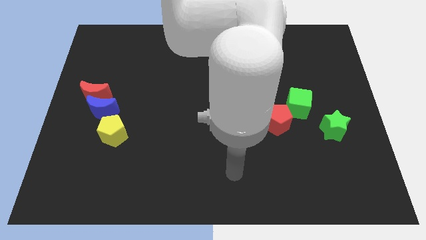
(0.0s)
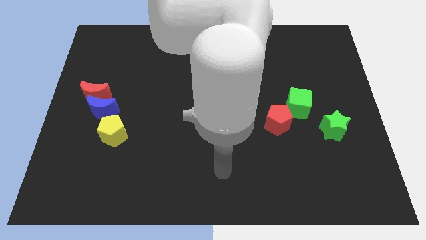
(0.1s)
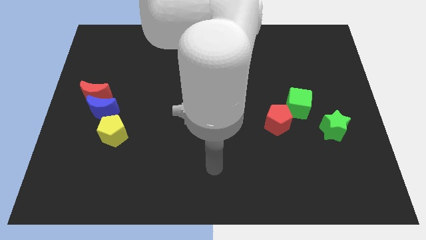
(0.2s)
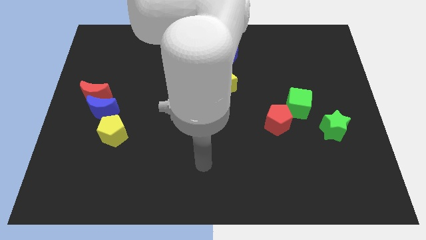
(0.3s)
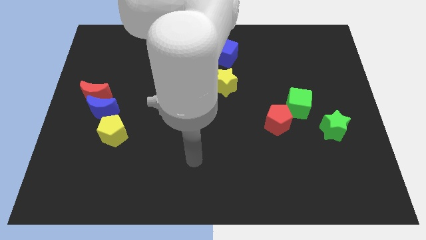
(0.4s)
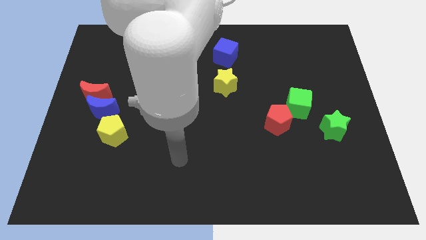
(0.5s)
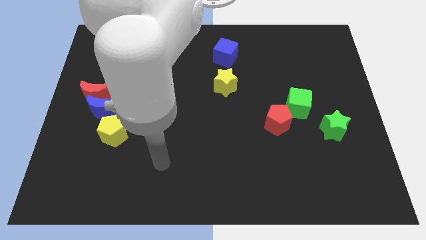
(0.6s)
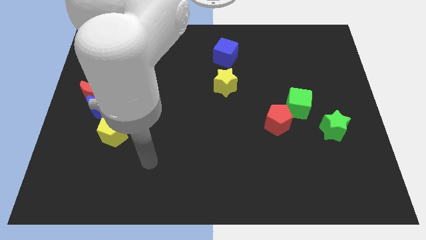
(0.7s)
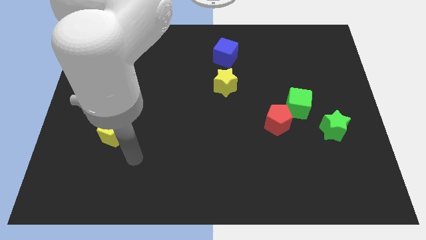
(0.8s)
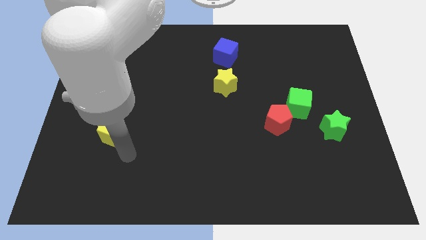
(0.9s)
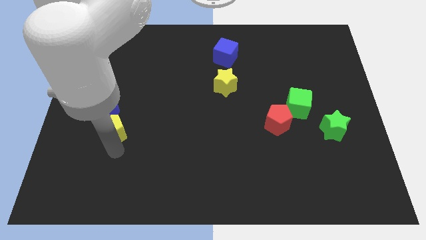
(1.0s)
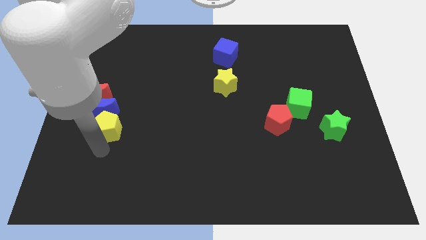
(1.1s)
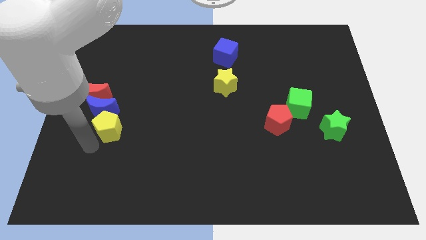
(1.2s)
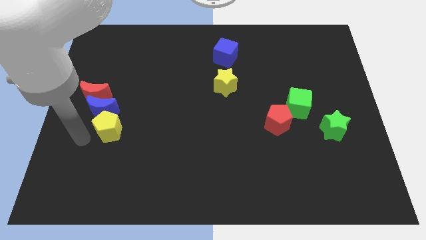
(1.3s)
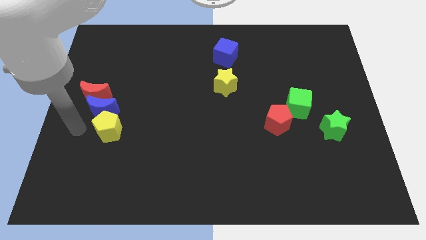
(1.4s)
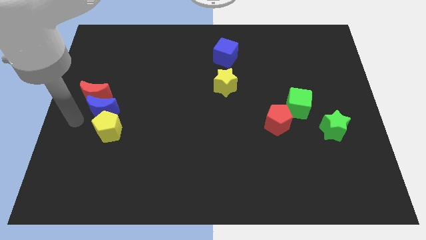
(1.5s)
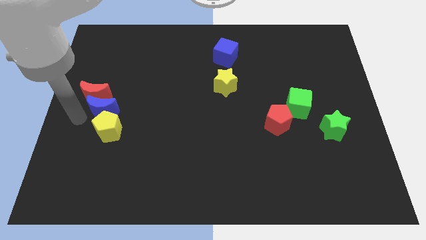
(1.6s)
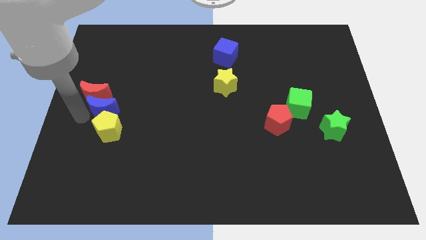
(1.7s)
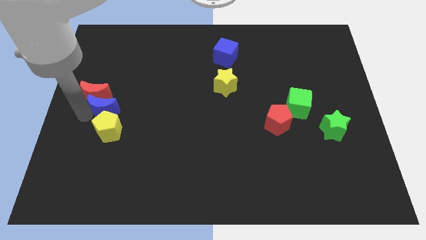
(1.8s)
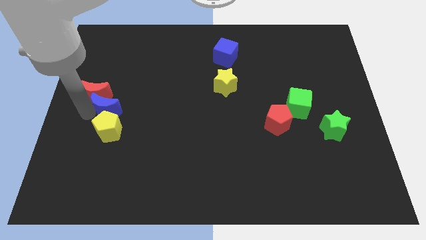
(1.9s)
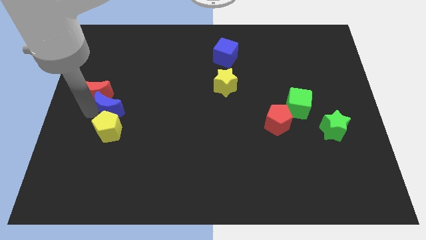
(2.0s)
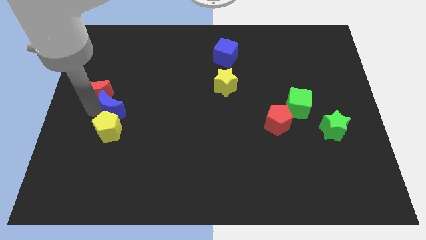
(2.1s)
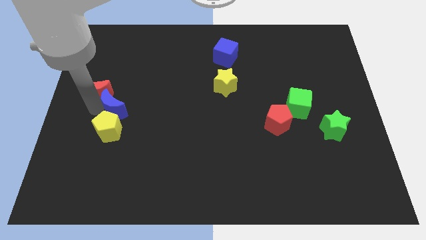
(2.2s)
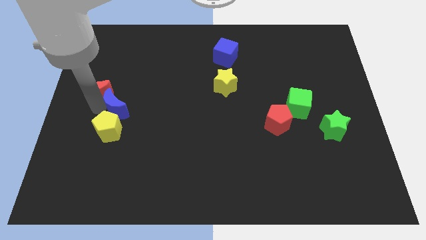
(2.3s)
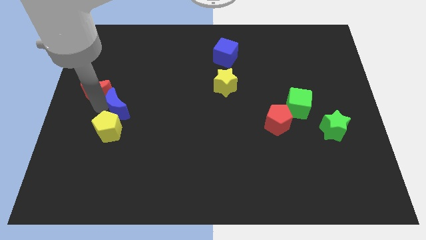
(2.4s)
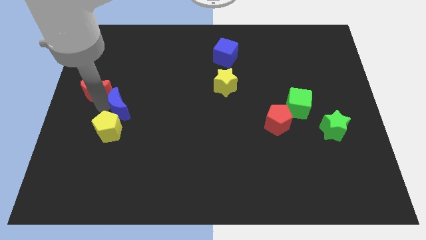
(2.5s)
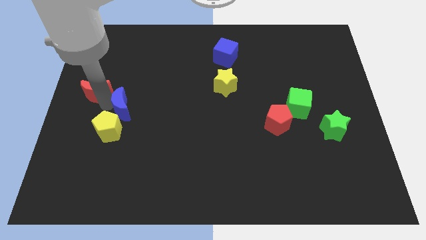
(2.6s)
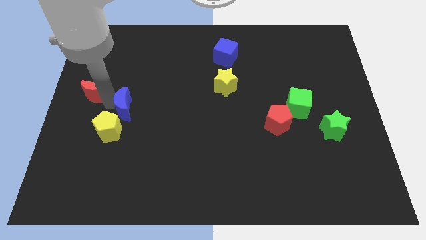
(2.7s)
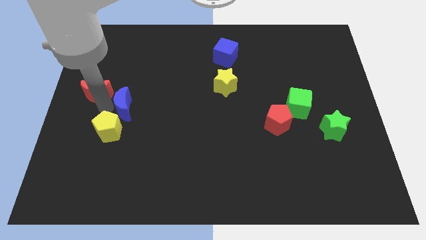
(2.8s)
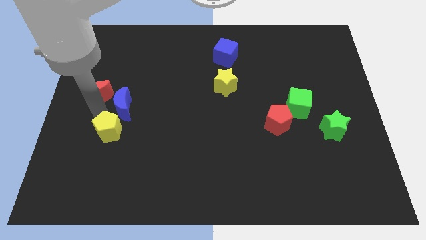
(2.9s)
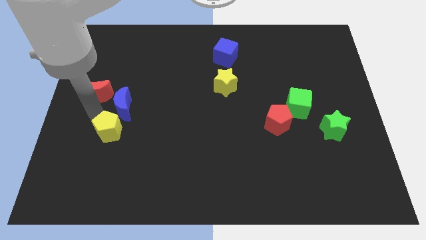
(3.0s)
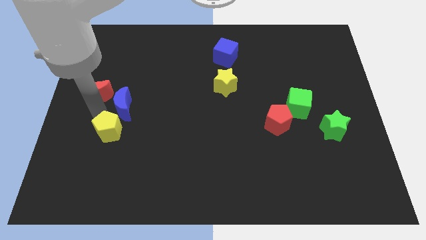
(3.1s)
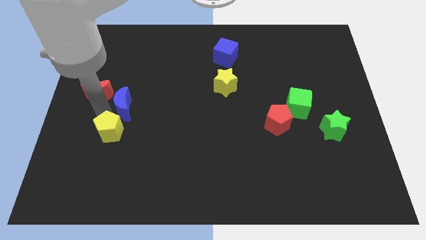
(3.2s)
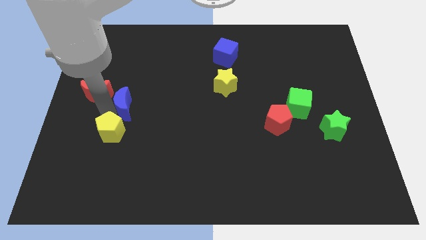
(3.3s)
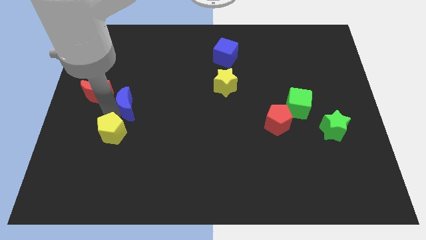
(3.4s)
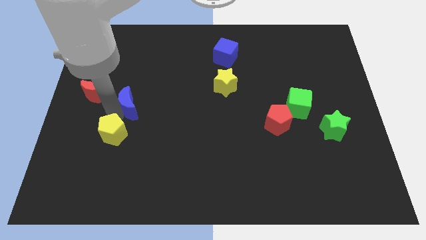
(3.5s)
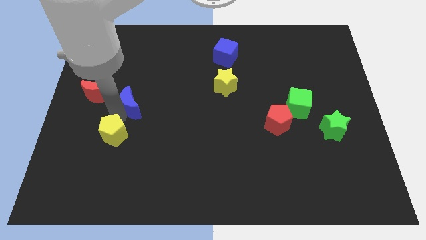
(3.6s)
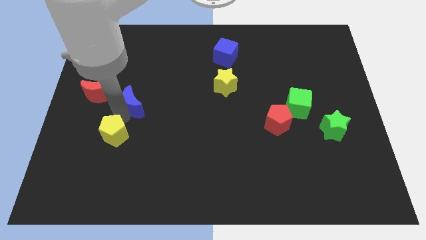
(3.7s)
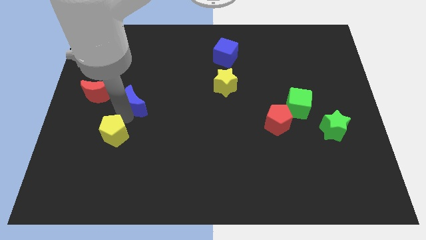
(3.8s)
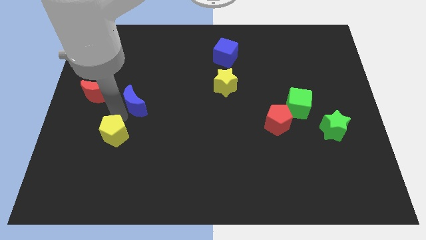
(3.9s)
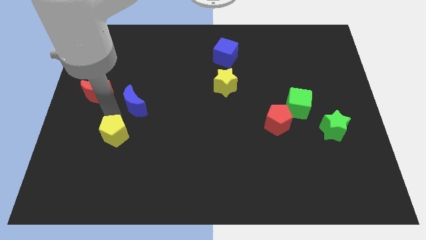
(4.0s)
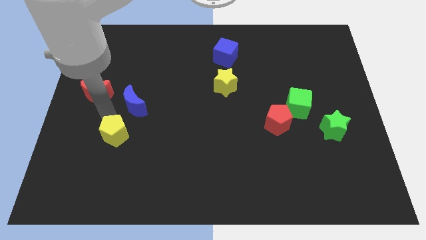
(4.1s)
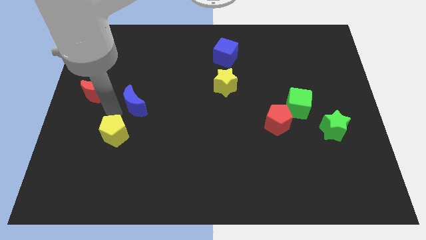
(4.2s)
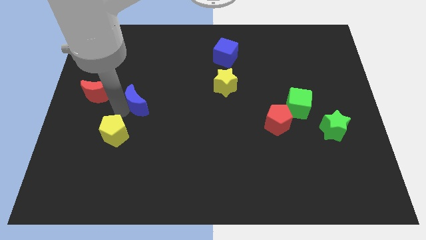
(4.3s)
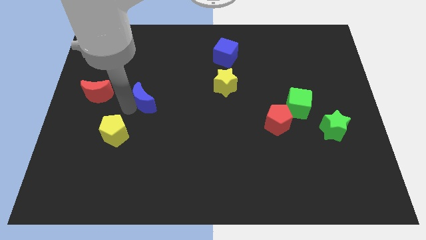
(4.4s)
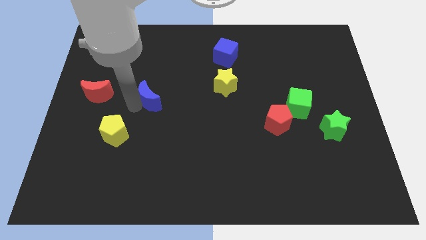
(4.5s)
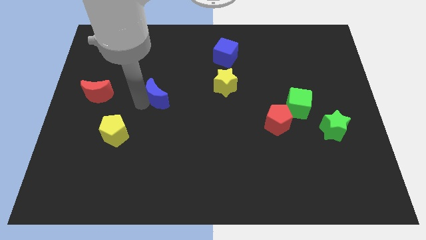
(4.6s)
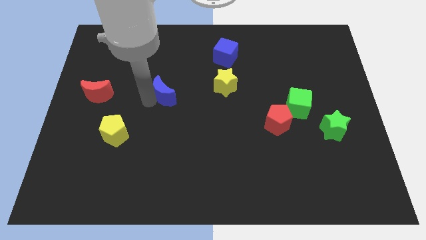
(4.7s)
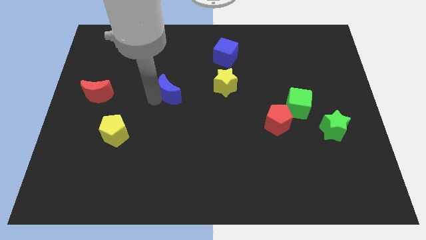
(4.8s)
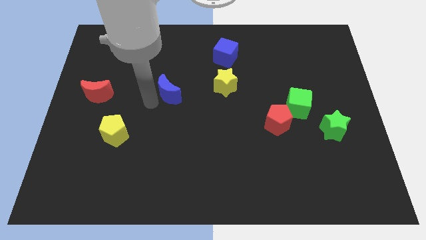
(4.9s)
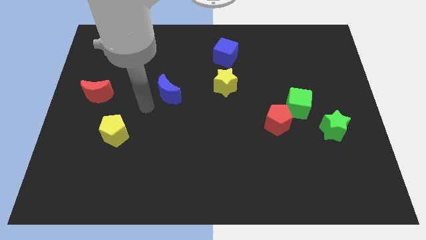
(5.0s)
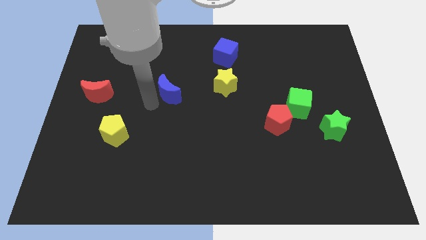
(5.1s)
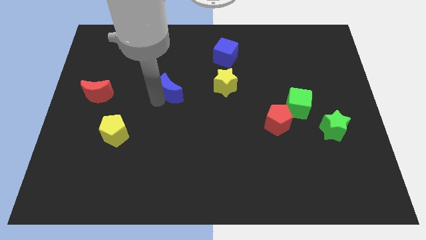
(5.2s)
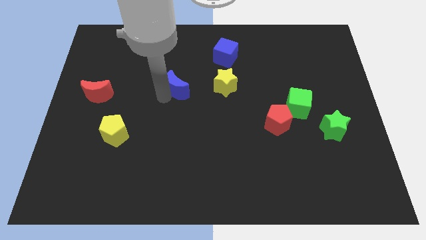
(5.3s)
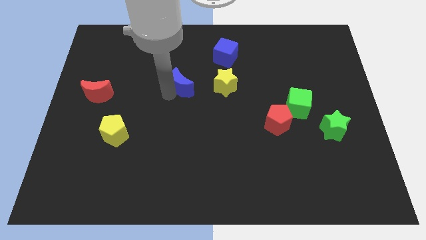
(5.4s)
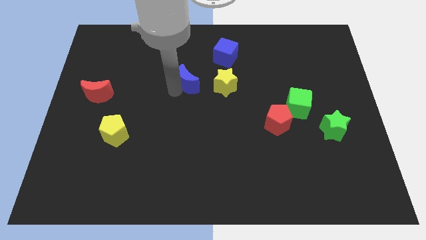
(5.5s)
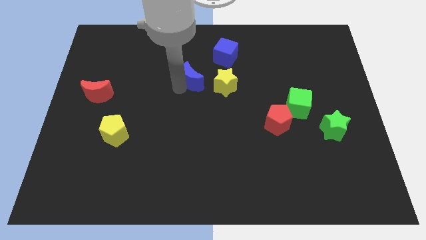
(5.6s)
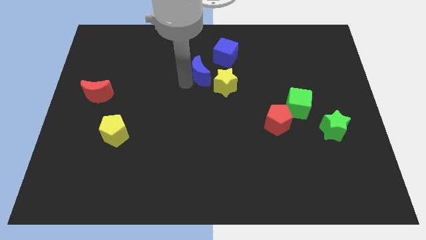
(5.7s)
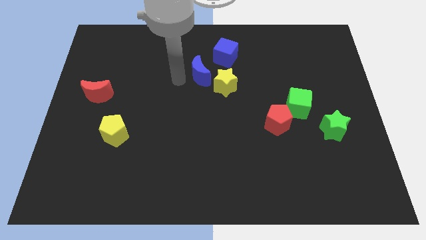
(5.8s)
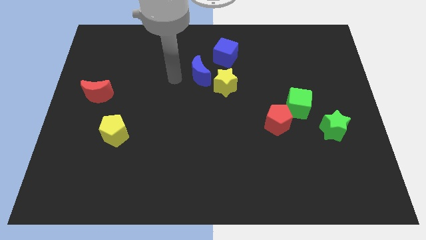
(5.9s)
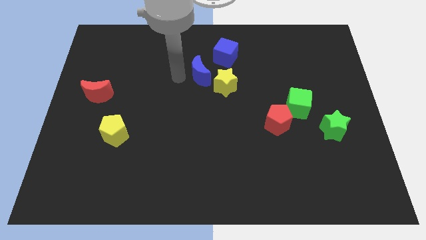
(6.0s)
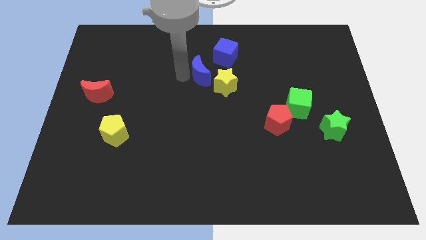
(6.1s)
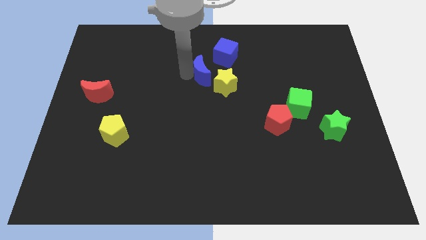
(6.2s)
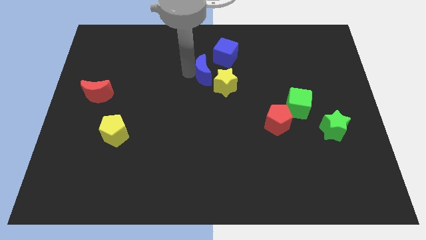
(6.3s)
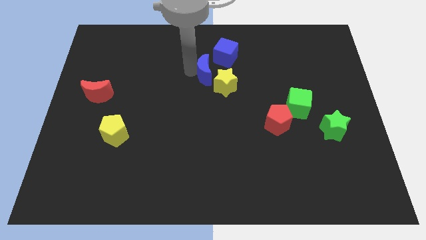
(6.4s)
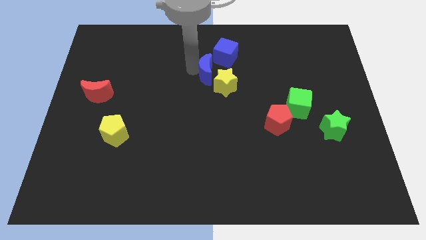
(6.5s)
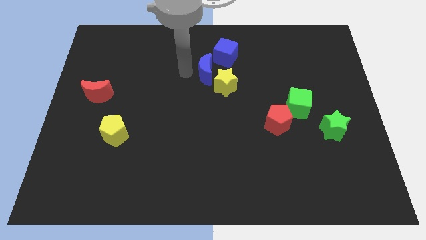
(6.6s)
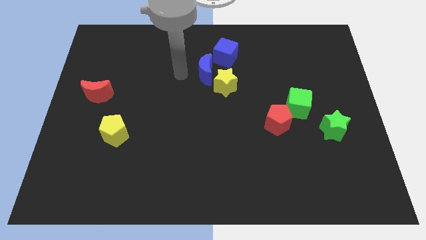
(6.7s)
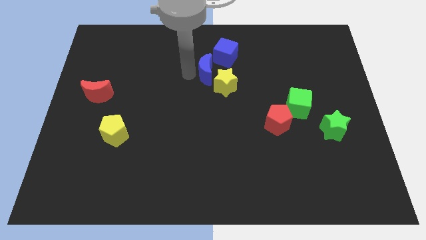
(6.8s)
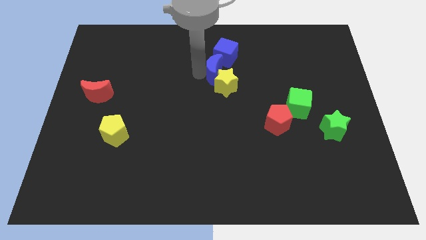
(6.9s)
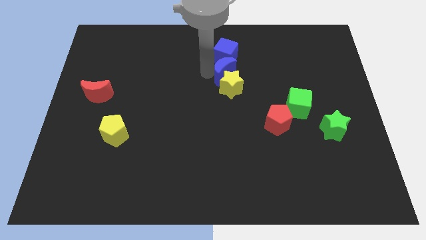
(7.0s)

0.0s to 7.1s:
put the blue moon diagonally down and to the right of the blue cube

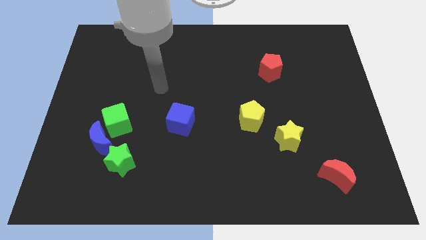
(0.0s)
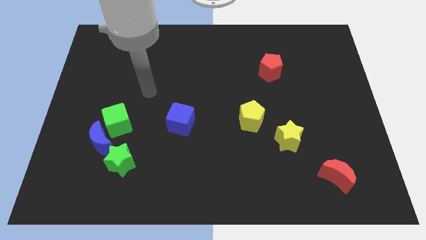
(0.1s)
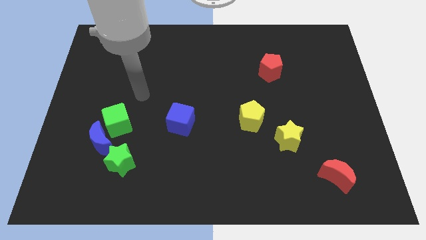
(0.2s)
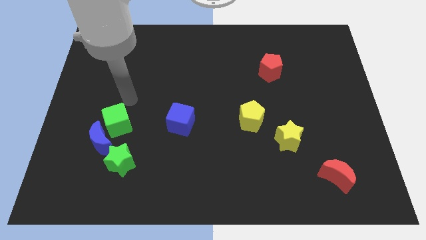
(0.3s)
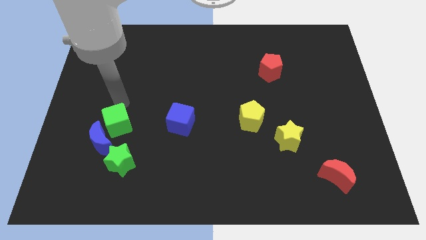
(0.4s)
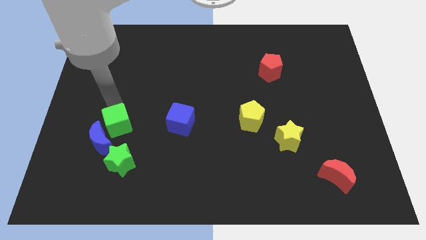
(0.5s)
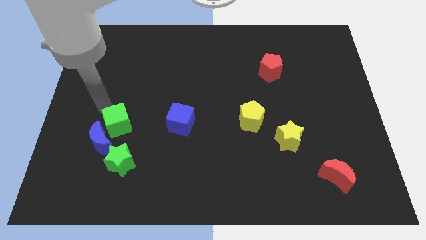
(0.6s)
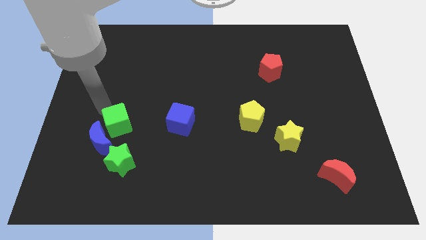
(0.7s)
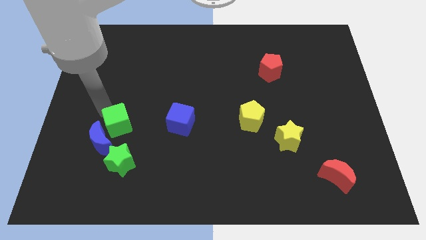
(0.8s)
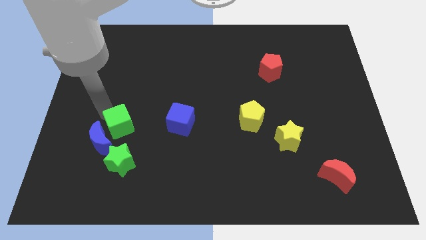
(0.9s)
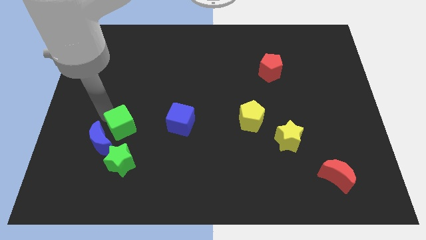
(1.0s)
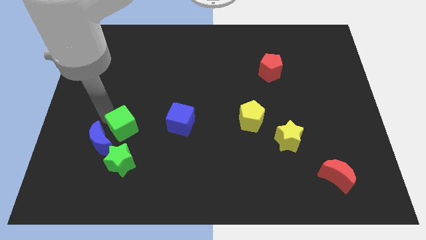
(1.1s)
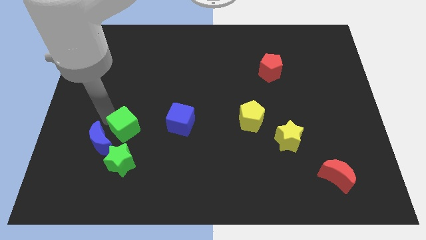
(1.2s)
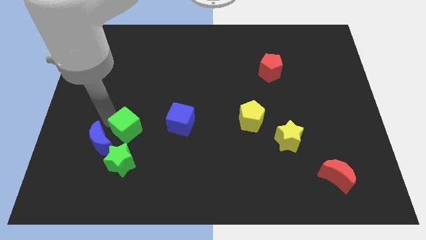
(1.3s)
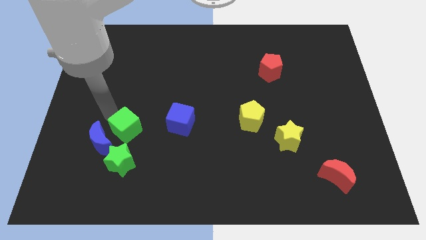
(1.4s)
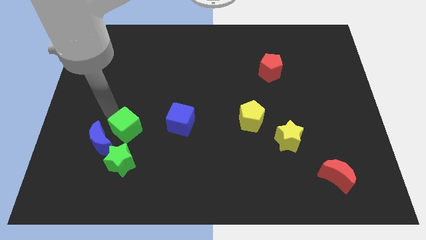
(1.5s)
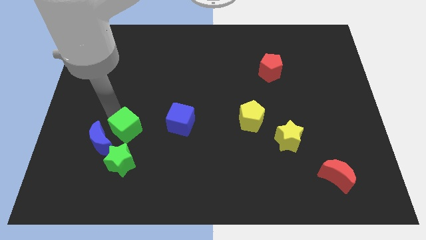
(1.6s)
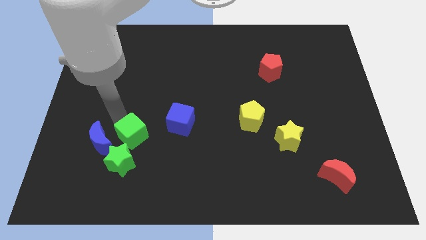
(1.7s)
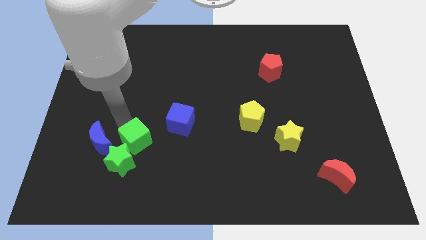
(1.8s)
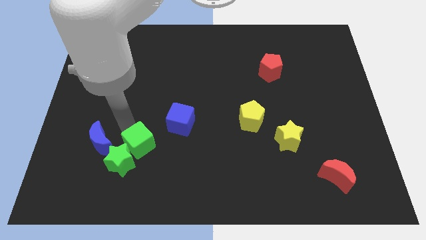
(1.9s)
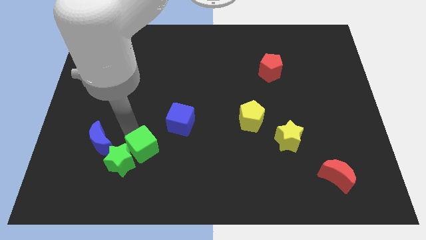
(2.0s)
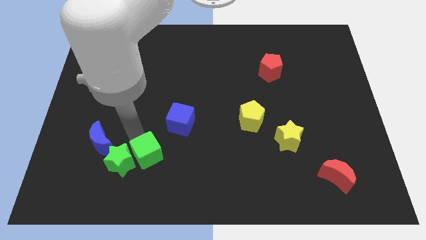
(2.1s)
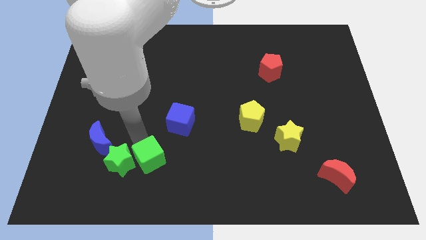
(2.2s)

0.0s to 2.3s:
push the green cube diagonally down and to the right of the green star
